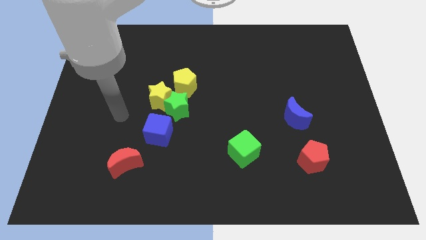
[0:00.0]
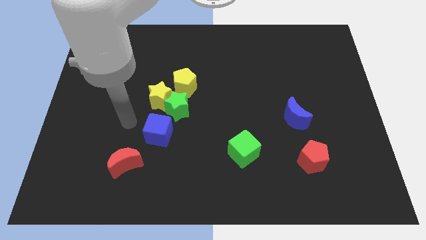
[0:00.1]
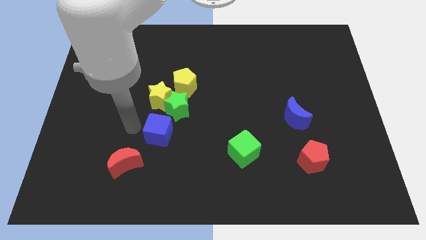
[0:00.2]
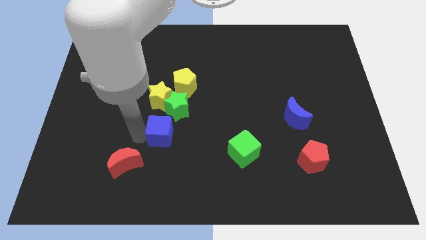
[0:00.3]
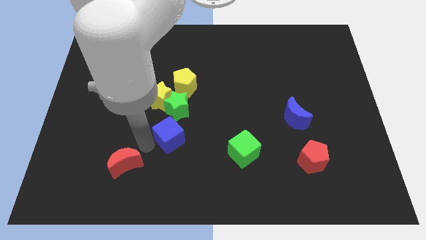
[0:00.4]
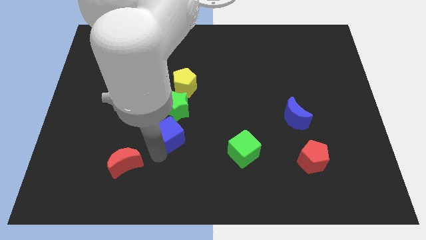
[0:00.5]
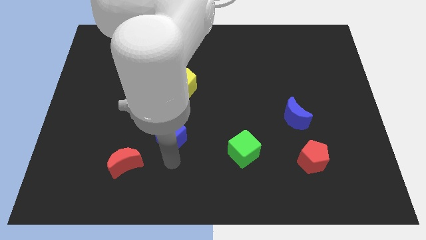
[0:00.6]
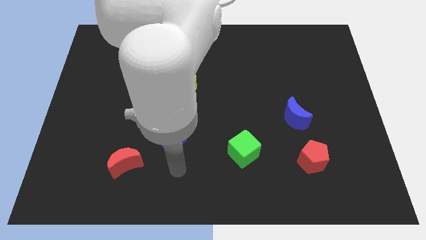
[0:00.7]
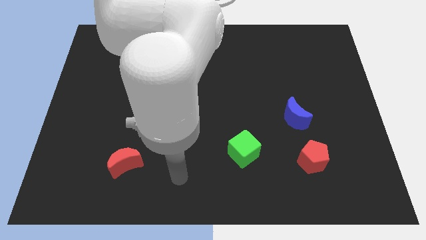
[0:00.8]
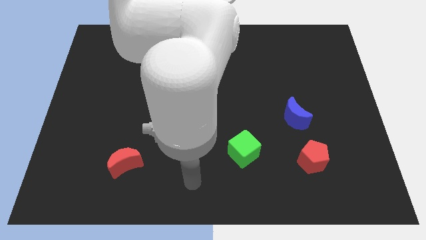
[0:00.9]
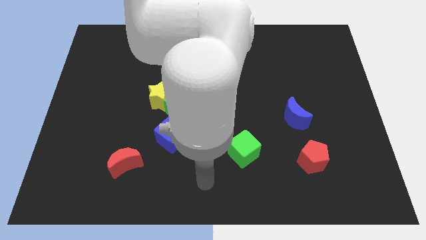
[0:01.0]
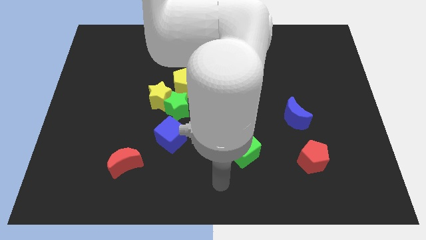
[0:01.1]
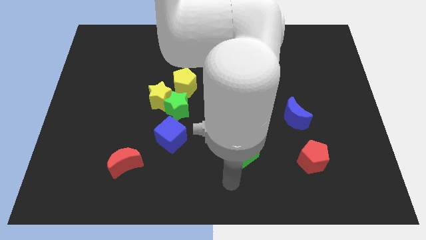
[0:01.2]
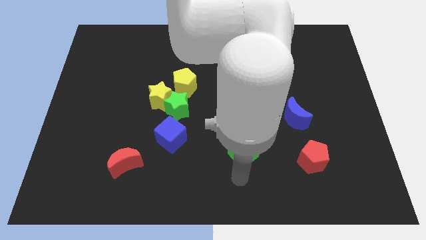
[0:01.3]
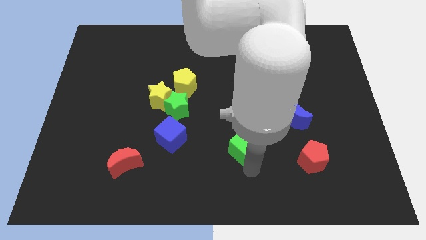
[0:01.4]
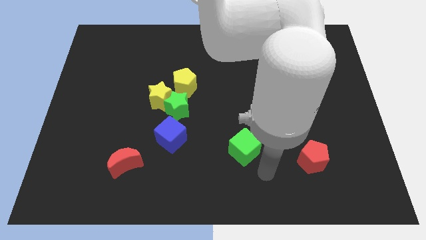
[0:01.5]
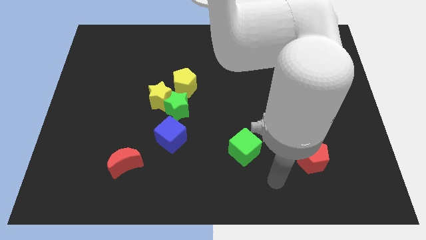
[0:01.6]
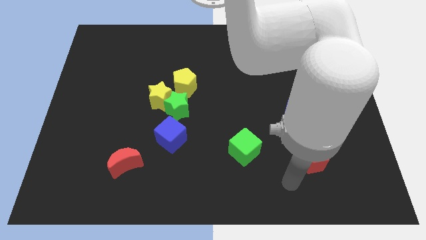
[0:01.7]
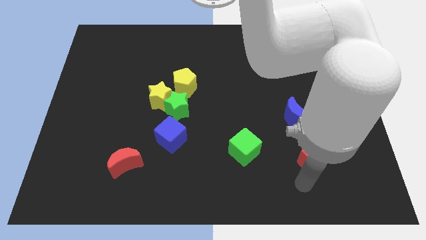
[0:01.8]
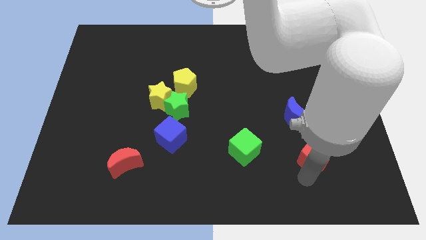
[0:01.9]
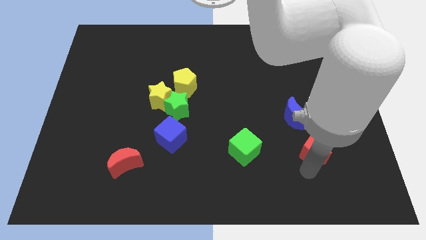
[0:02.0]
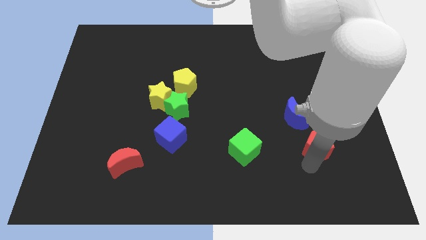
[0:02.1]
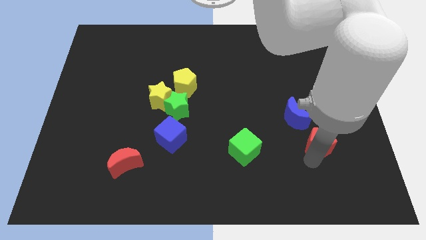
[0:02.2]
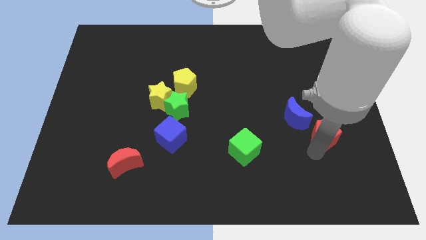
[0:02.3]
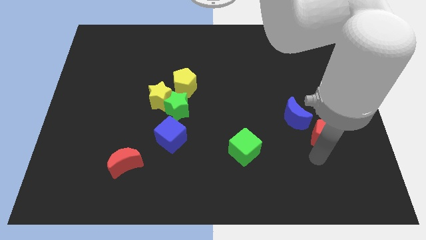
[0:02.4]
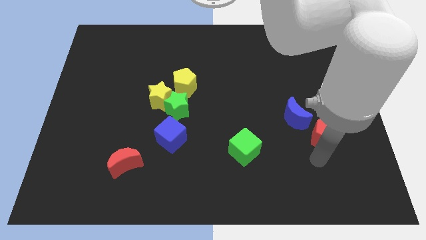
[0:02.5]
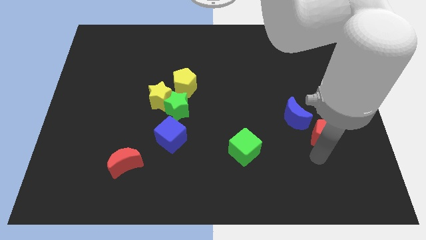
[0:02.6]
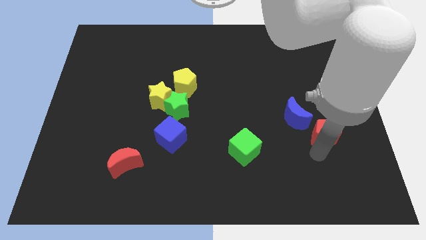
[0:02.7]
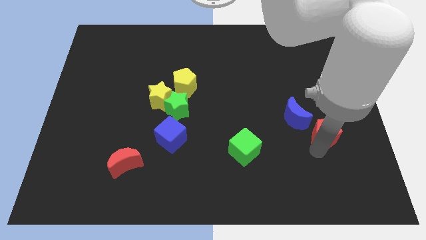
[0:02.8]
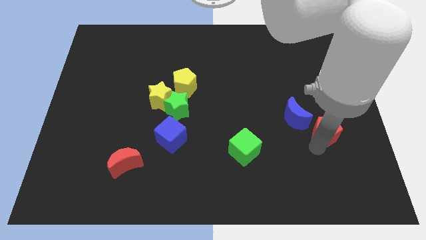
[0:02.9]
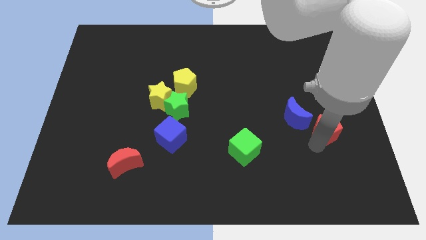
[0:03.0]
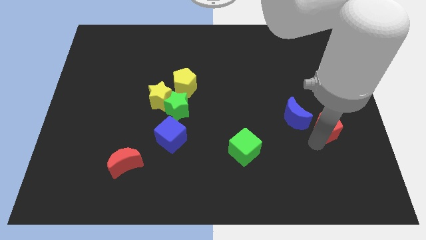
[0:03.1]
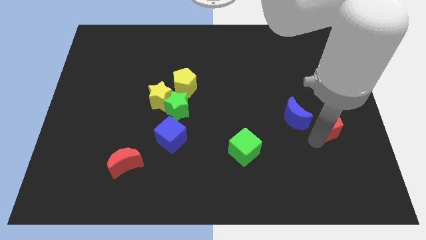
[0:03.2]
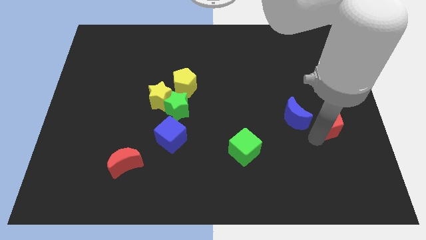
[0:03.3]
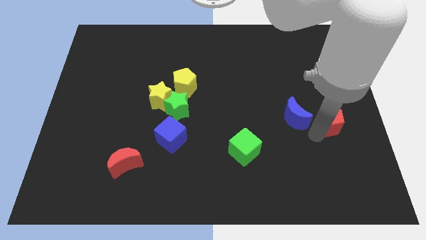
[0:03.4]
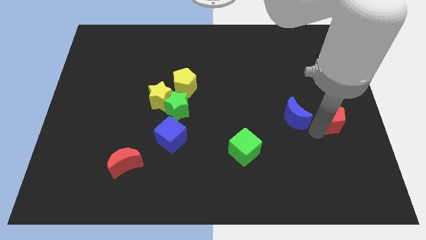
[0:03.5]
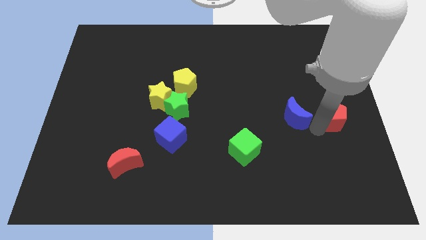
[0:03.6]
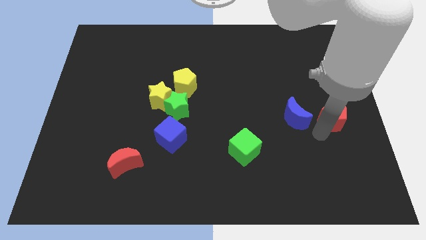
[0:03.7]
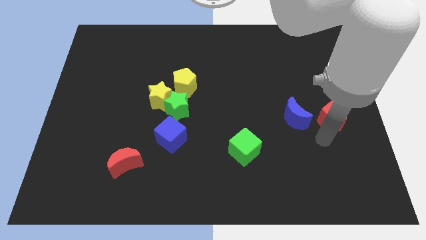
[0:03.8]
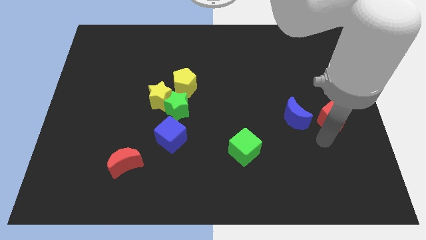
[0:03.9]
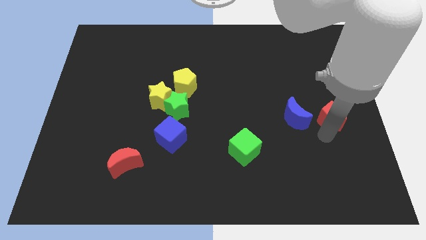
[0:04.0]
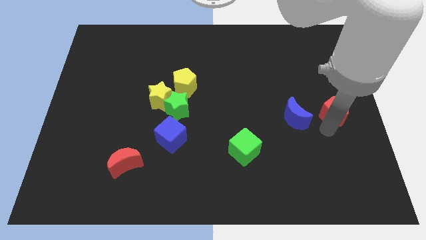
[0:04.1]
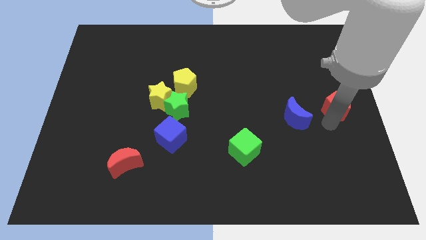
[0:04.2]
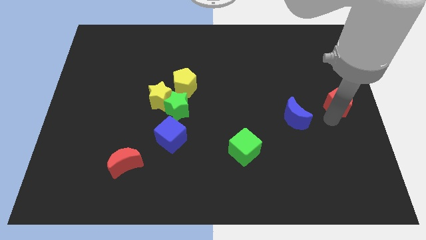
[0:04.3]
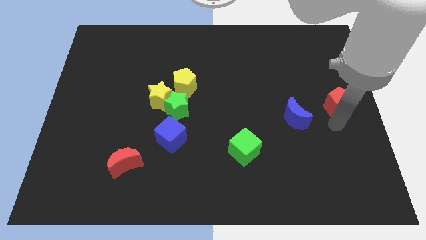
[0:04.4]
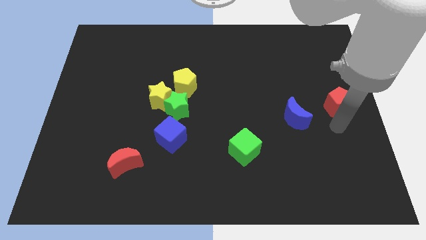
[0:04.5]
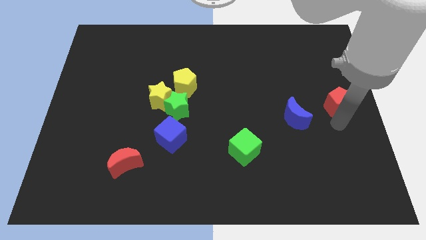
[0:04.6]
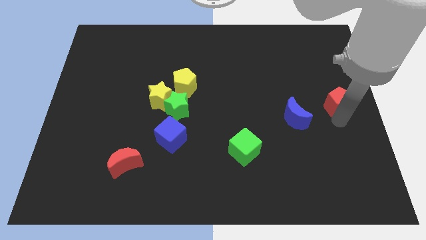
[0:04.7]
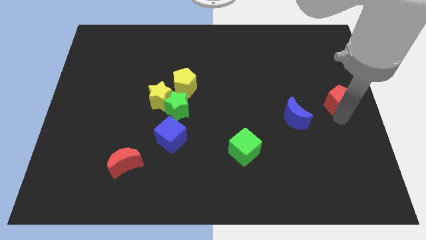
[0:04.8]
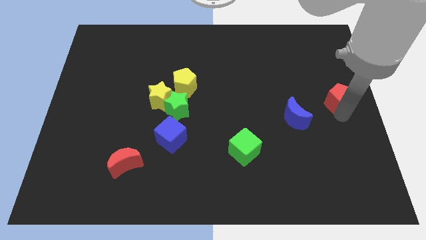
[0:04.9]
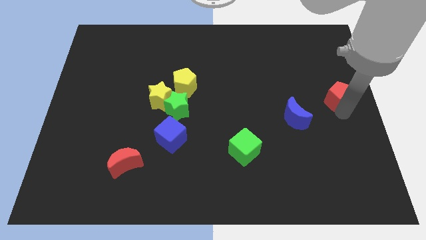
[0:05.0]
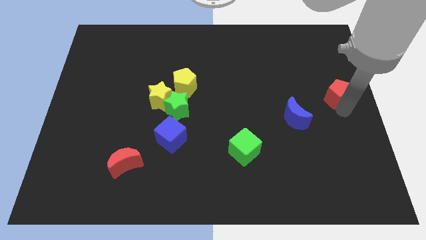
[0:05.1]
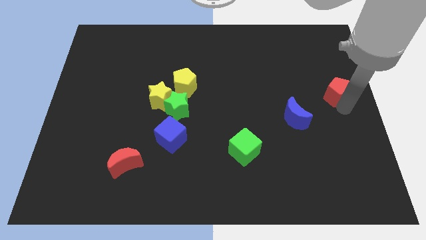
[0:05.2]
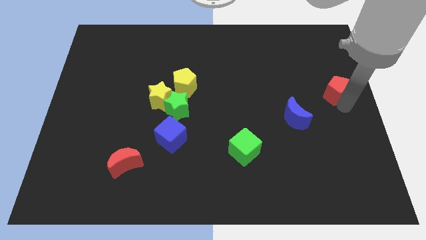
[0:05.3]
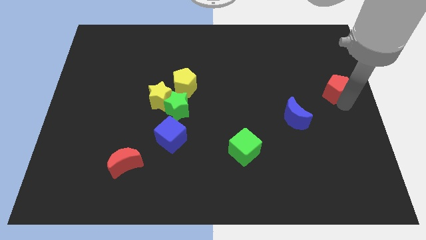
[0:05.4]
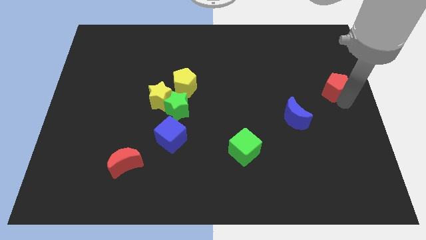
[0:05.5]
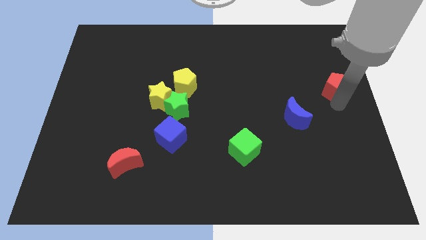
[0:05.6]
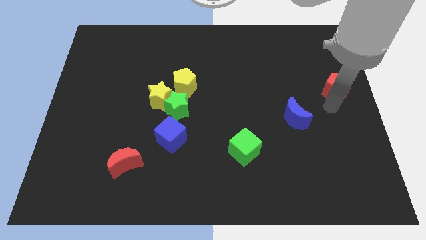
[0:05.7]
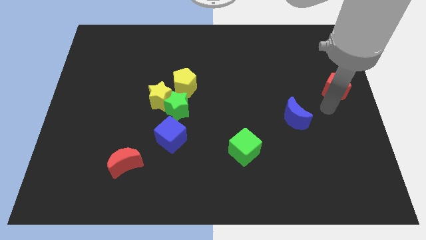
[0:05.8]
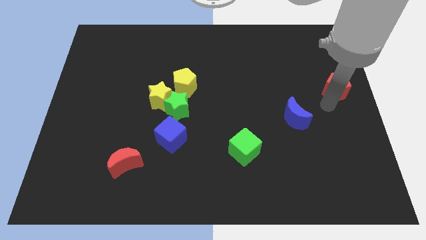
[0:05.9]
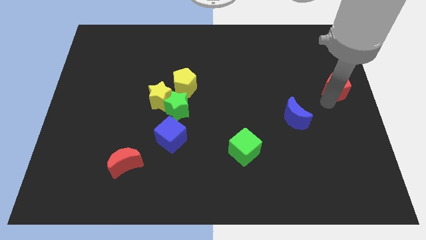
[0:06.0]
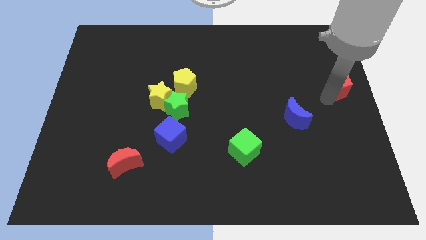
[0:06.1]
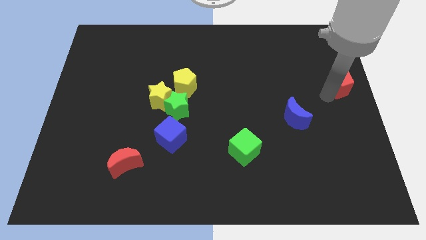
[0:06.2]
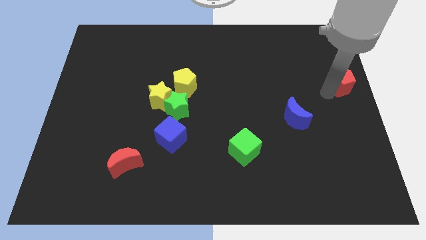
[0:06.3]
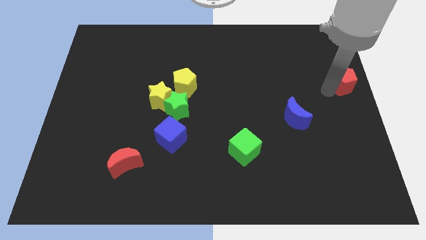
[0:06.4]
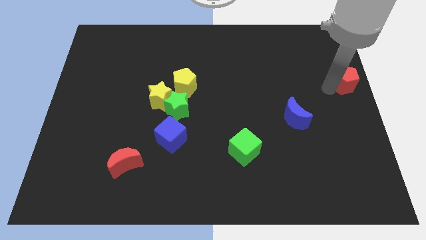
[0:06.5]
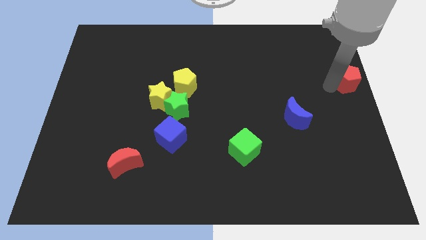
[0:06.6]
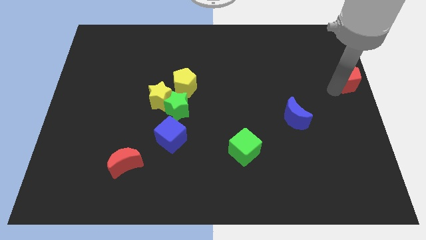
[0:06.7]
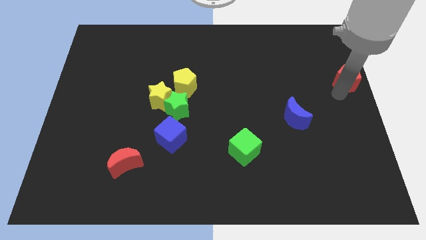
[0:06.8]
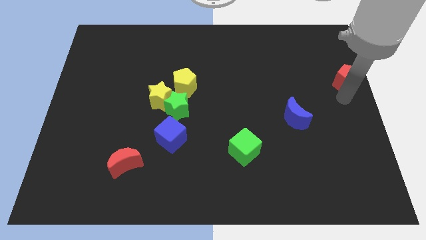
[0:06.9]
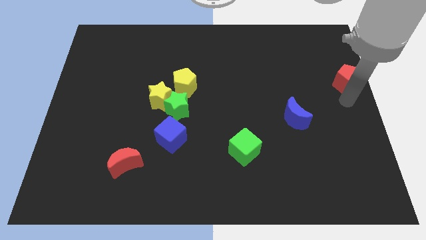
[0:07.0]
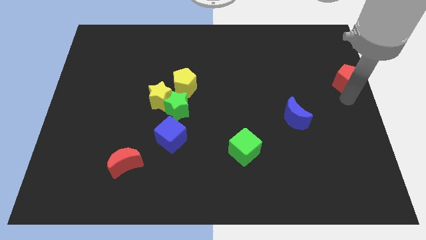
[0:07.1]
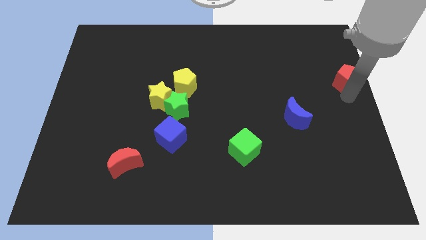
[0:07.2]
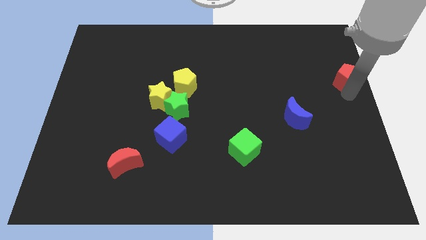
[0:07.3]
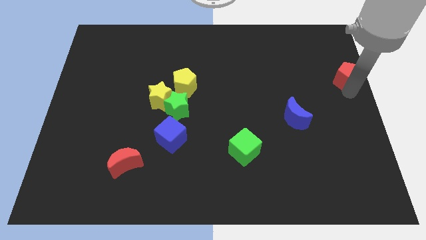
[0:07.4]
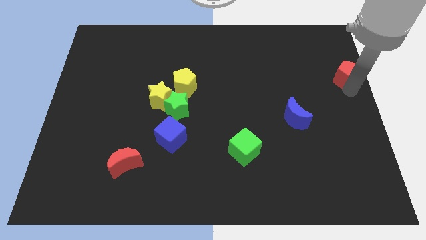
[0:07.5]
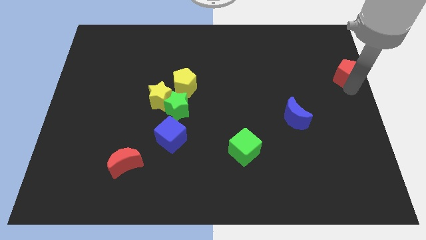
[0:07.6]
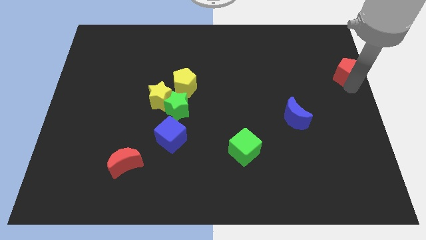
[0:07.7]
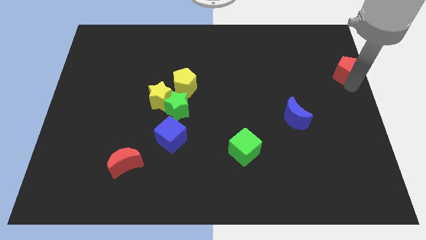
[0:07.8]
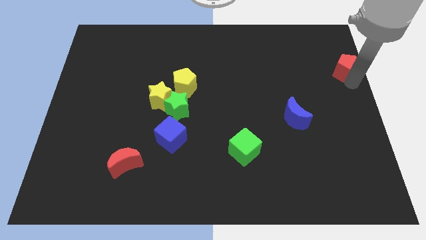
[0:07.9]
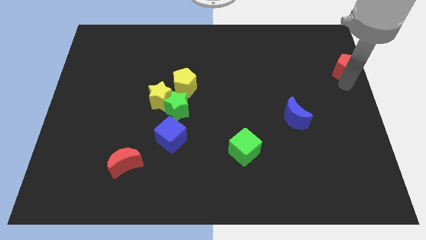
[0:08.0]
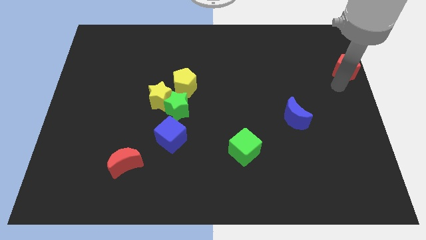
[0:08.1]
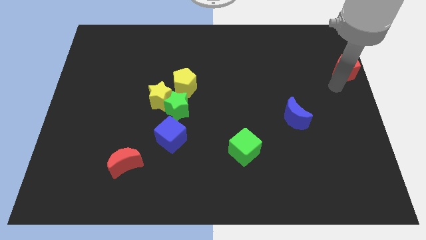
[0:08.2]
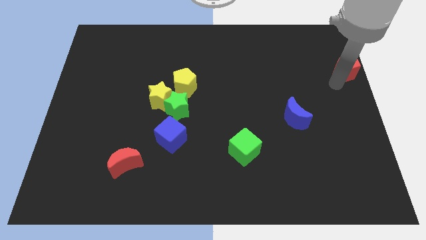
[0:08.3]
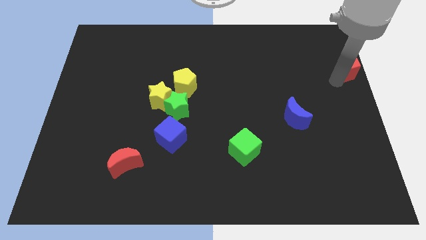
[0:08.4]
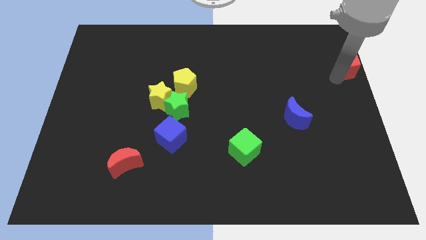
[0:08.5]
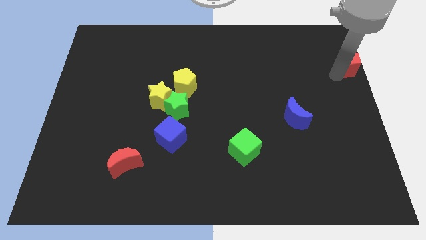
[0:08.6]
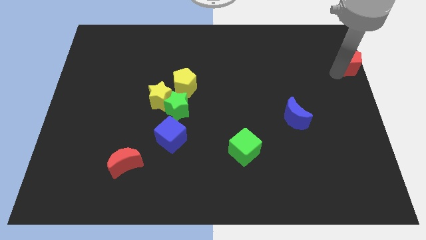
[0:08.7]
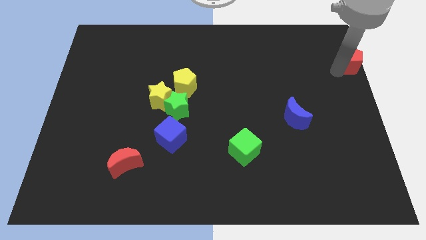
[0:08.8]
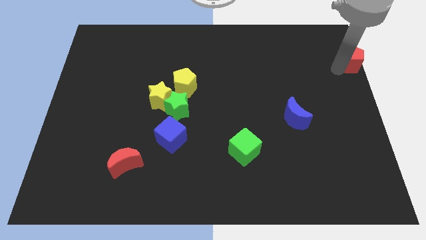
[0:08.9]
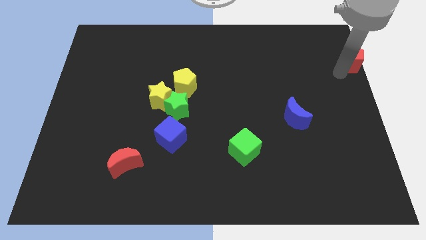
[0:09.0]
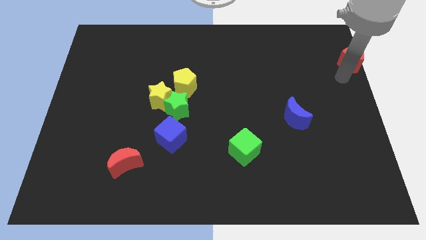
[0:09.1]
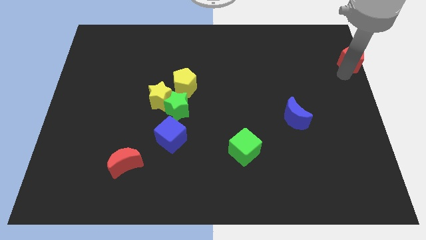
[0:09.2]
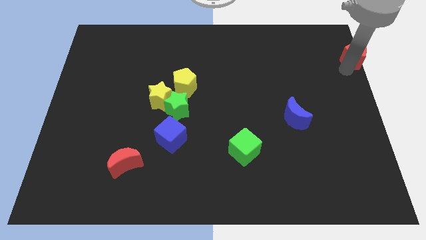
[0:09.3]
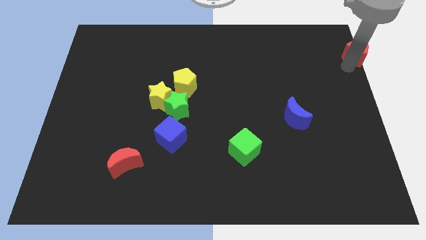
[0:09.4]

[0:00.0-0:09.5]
slide the red pentagon to the top right corner
